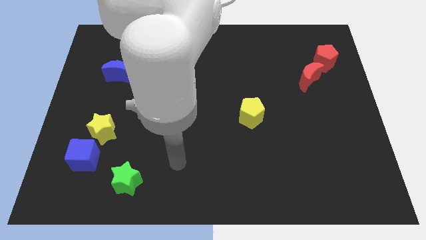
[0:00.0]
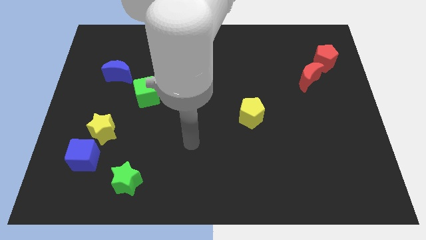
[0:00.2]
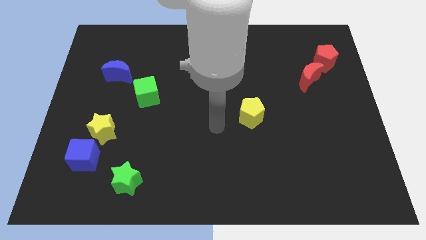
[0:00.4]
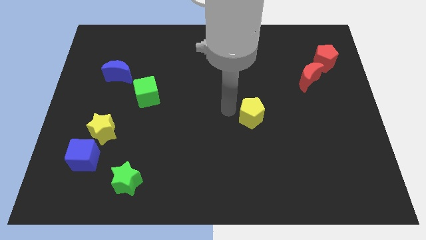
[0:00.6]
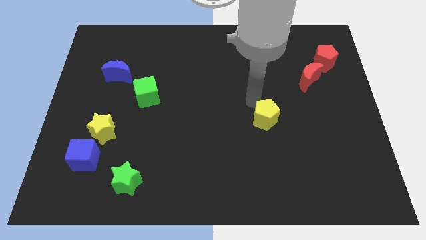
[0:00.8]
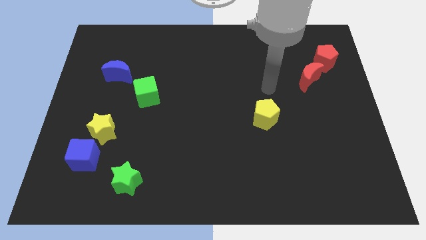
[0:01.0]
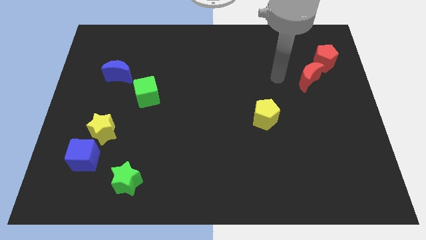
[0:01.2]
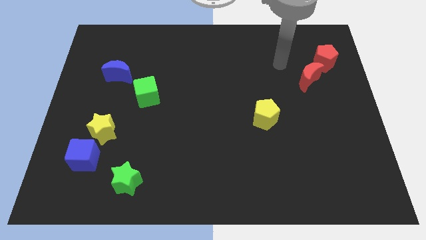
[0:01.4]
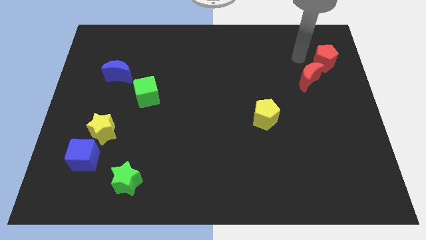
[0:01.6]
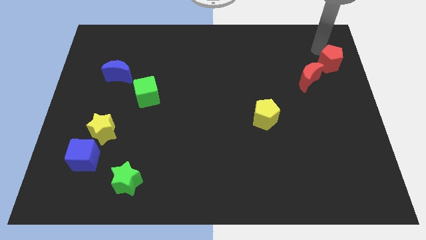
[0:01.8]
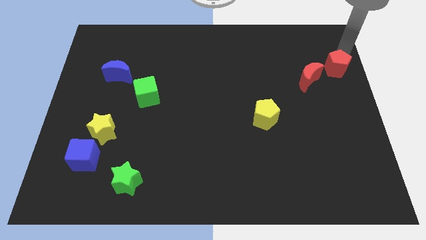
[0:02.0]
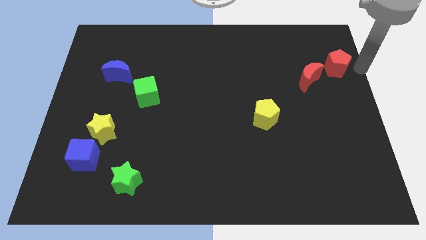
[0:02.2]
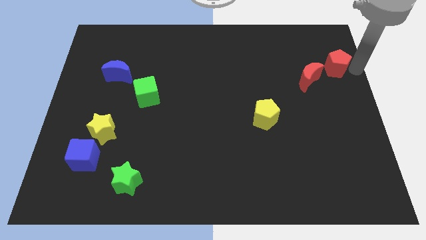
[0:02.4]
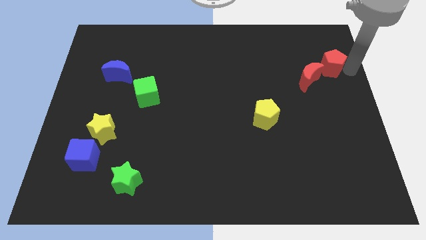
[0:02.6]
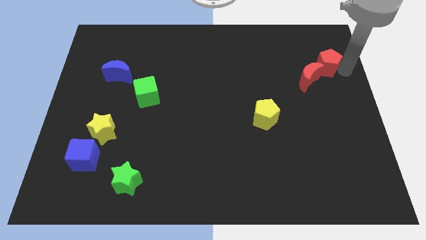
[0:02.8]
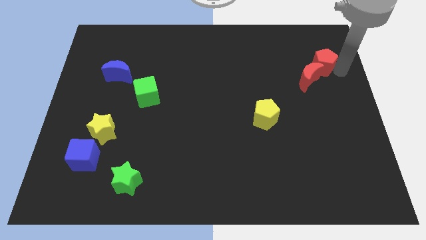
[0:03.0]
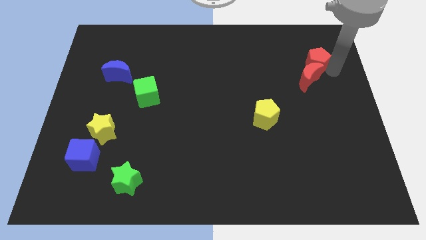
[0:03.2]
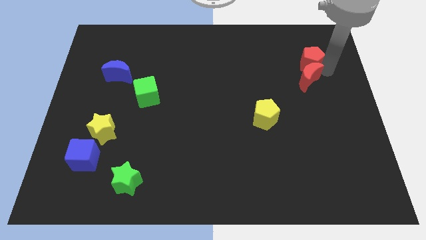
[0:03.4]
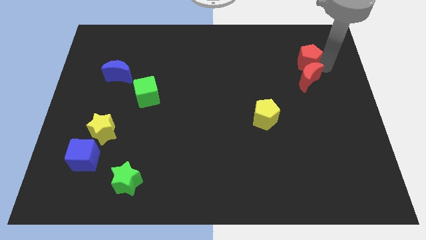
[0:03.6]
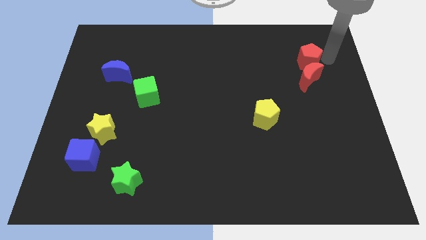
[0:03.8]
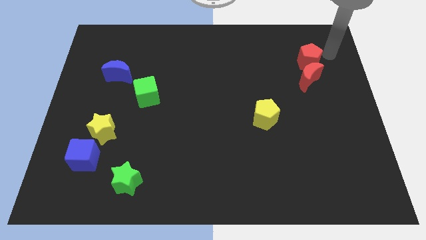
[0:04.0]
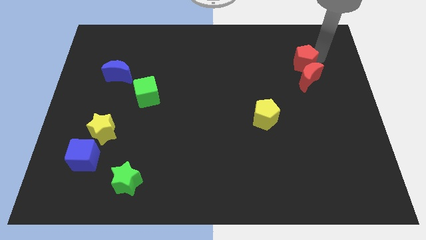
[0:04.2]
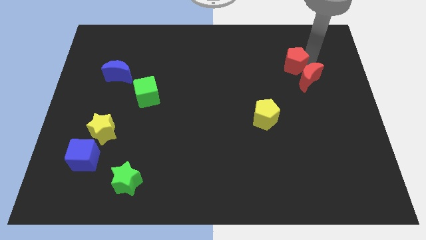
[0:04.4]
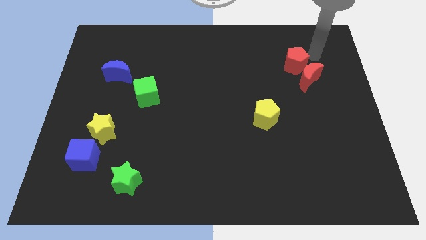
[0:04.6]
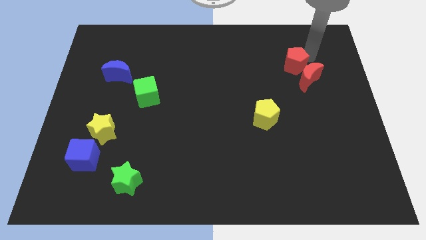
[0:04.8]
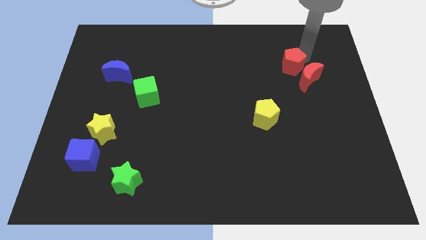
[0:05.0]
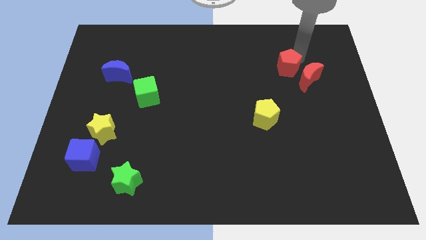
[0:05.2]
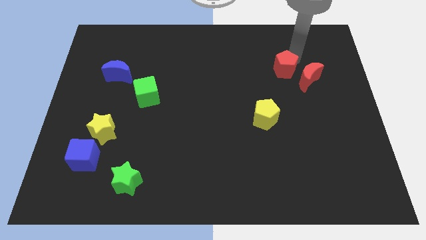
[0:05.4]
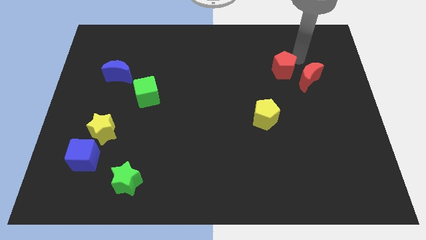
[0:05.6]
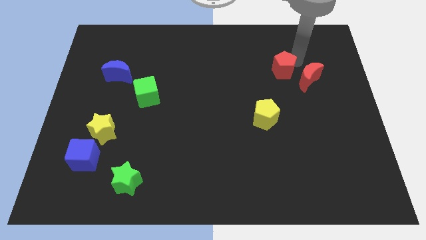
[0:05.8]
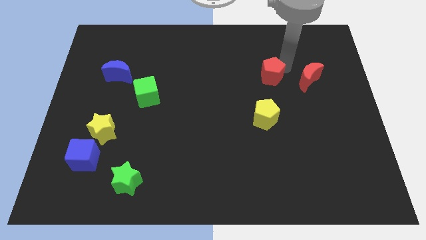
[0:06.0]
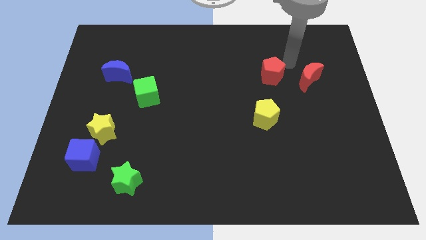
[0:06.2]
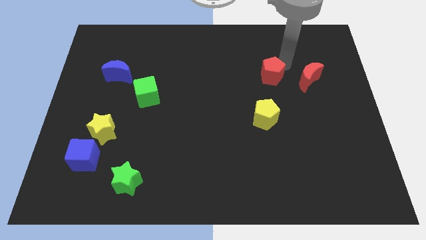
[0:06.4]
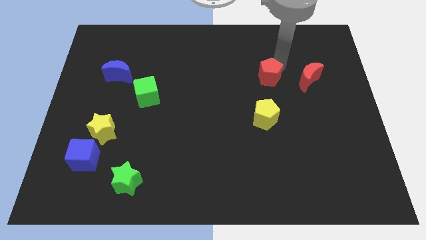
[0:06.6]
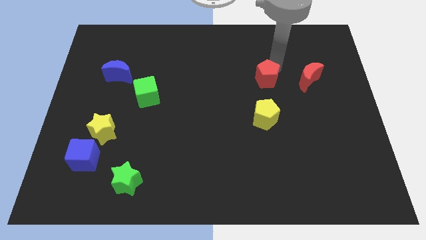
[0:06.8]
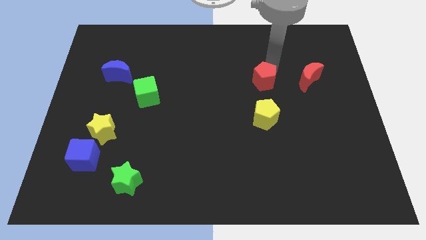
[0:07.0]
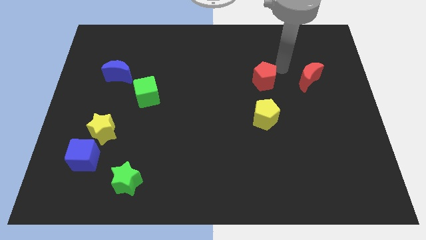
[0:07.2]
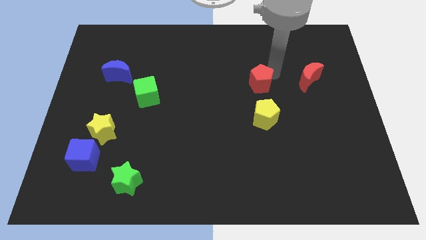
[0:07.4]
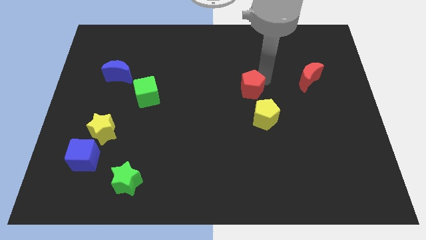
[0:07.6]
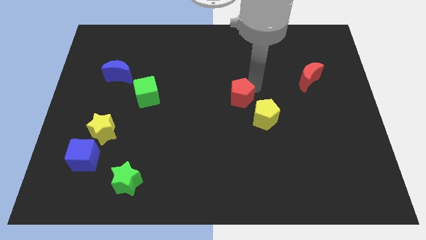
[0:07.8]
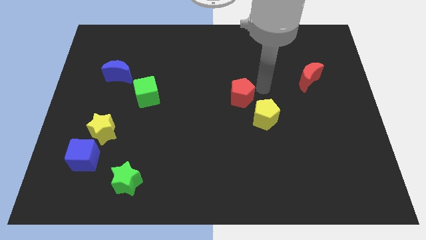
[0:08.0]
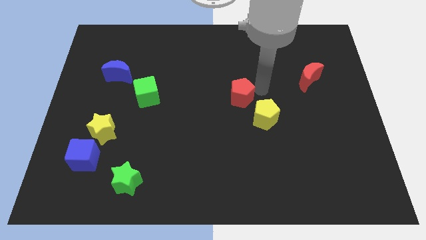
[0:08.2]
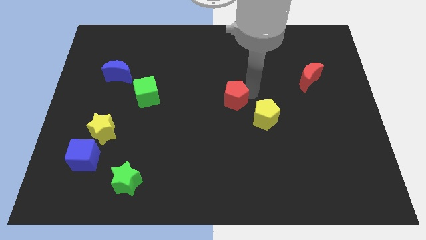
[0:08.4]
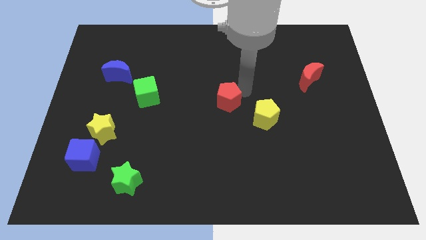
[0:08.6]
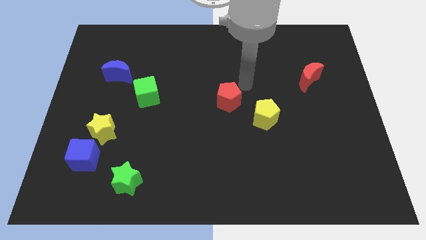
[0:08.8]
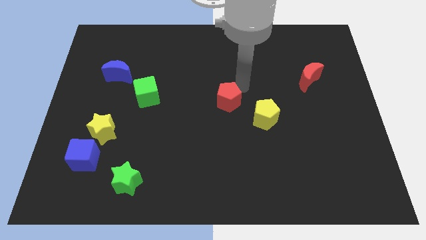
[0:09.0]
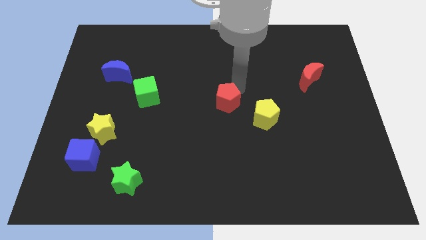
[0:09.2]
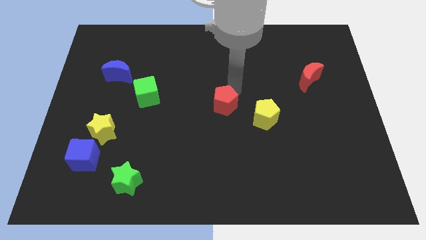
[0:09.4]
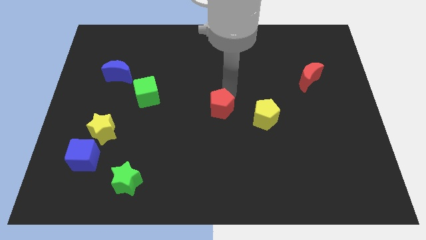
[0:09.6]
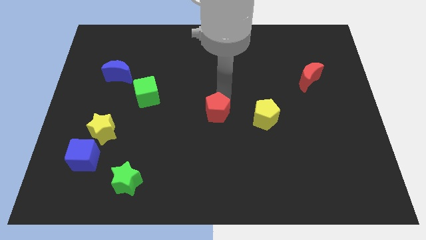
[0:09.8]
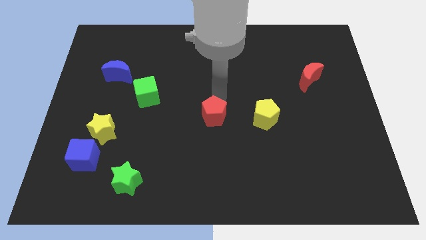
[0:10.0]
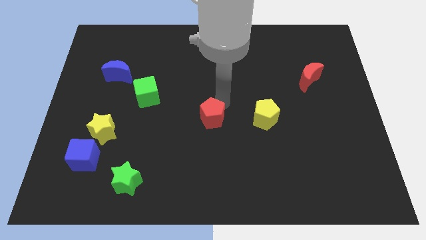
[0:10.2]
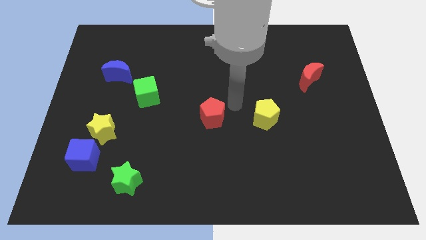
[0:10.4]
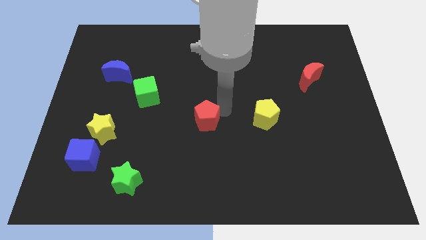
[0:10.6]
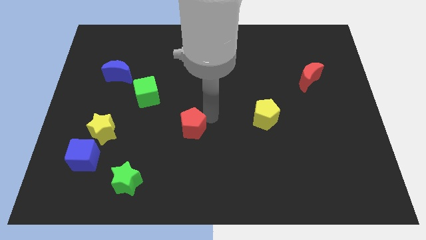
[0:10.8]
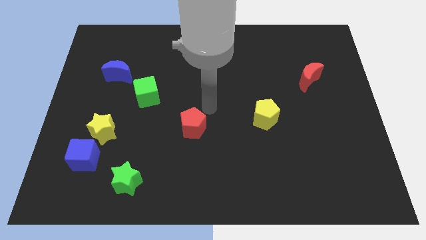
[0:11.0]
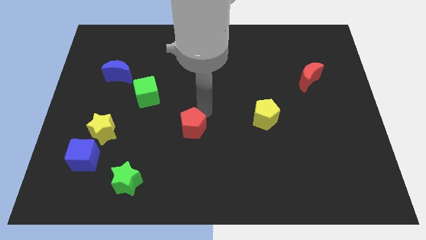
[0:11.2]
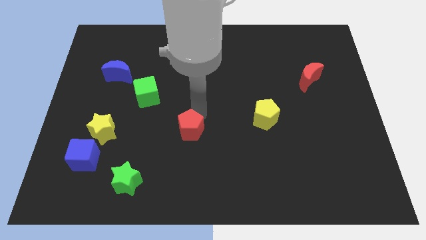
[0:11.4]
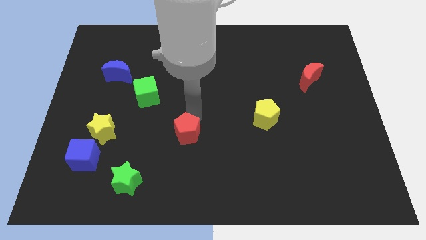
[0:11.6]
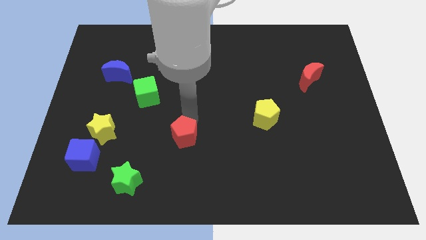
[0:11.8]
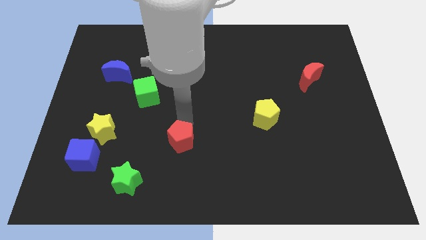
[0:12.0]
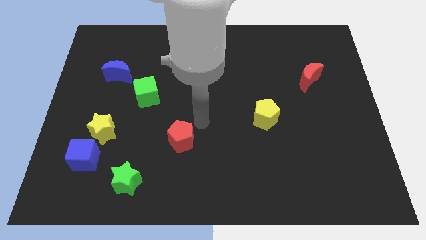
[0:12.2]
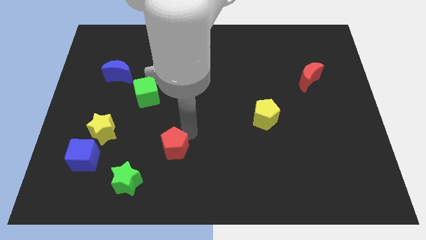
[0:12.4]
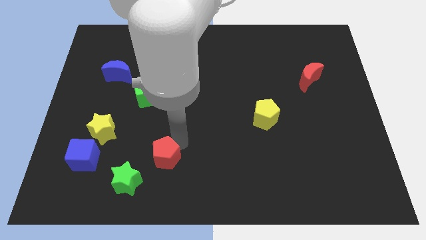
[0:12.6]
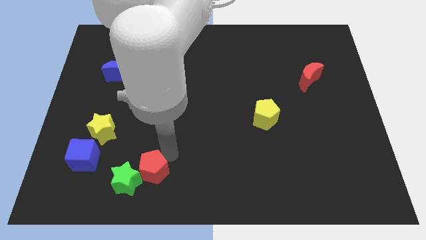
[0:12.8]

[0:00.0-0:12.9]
move the red pentagon close to the green star
